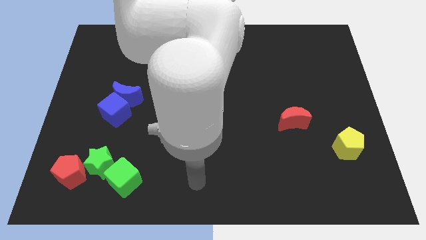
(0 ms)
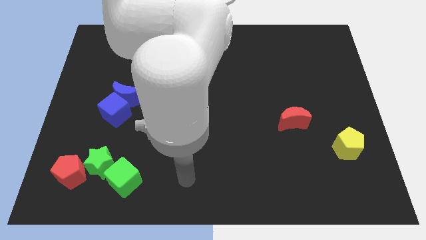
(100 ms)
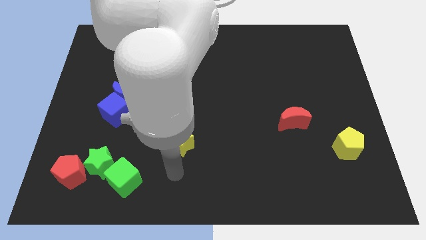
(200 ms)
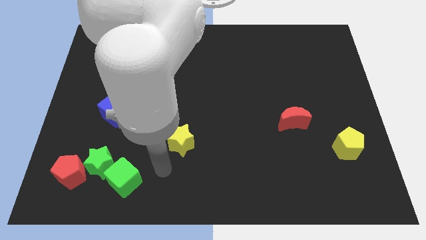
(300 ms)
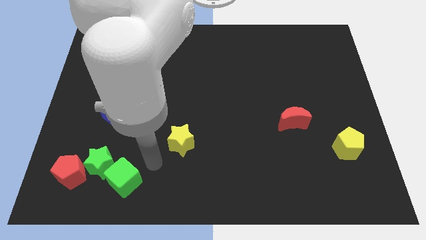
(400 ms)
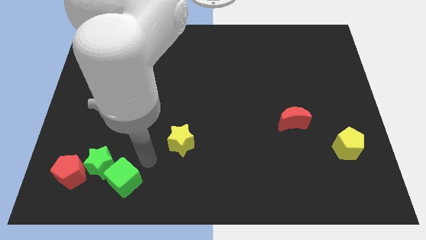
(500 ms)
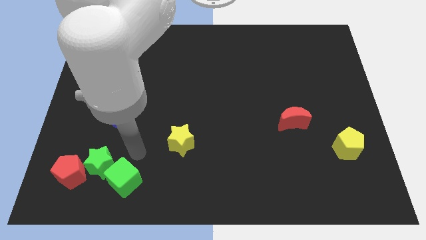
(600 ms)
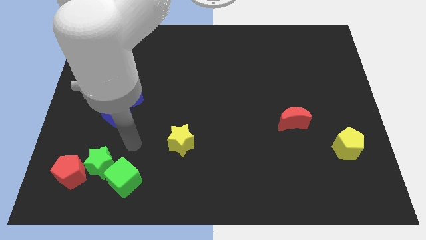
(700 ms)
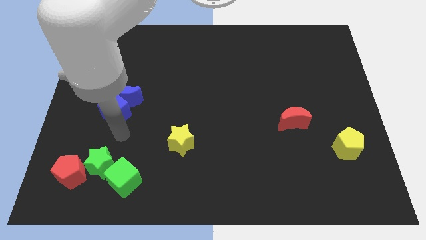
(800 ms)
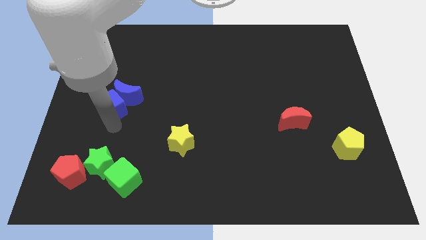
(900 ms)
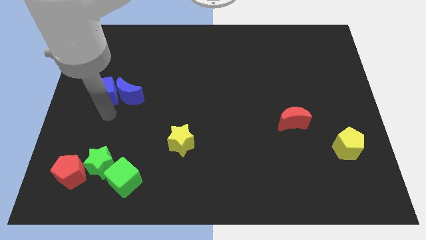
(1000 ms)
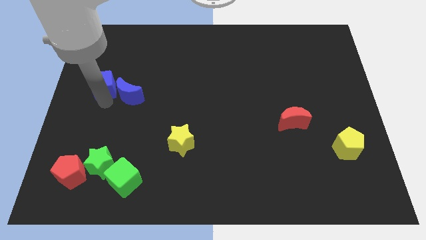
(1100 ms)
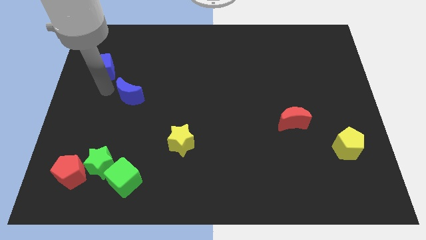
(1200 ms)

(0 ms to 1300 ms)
move the blue moon away from the blue cube

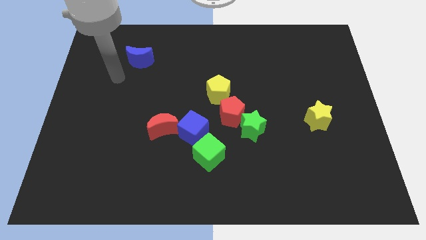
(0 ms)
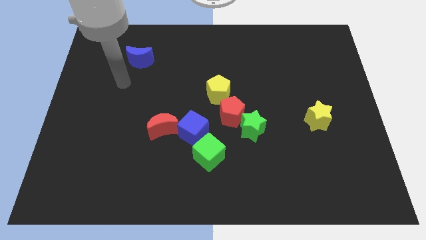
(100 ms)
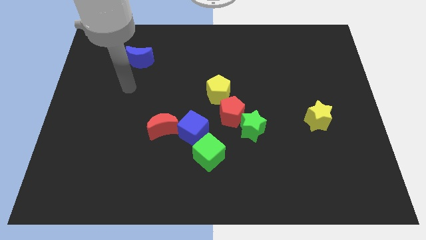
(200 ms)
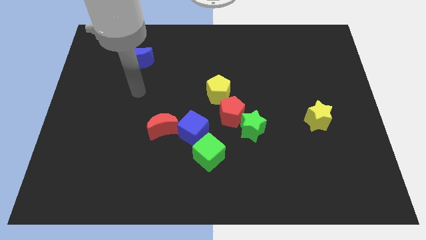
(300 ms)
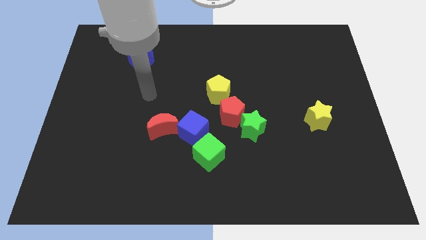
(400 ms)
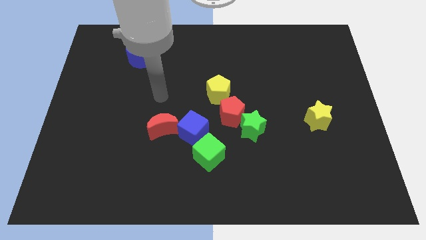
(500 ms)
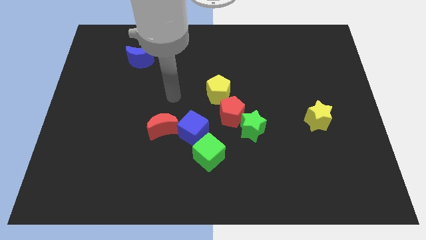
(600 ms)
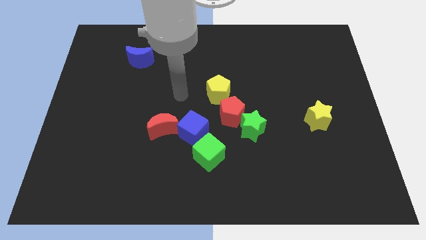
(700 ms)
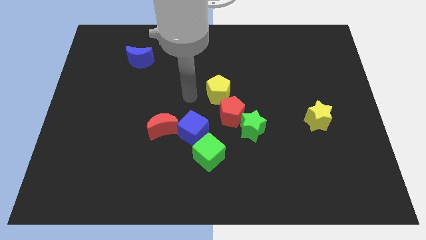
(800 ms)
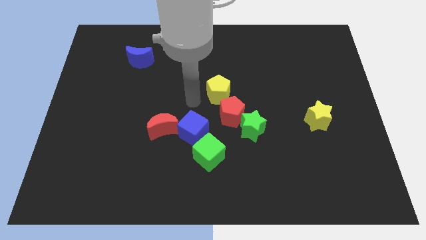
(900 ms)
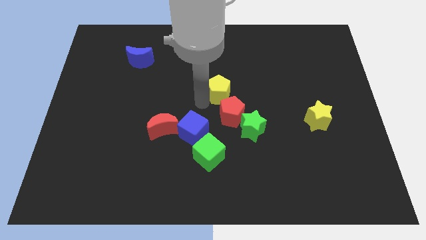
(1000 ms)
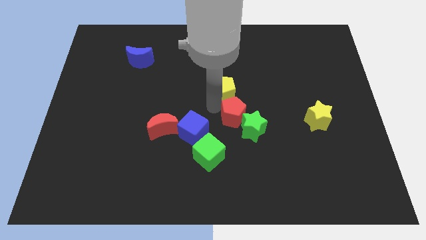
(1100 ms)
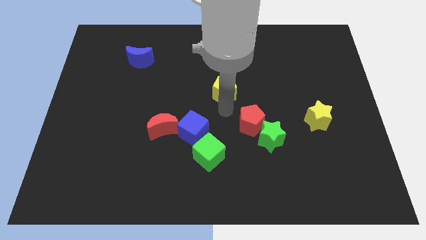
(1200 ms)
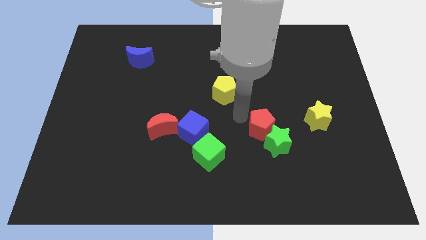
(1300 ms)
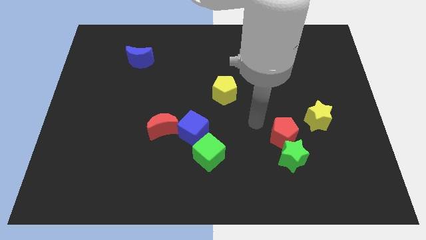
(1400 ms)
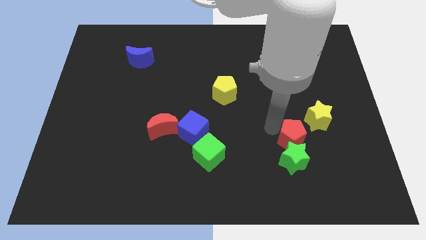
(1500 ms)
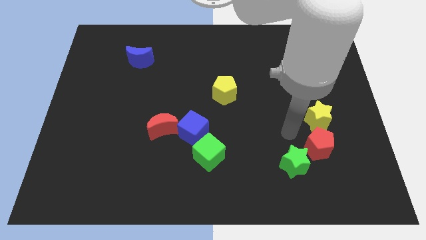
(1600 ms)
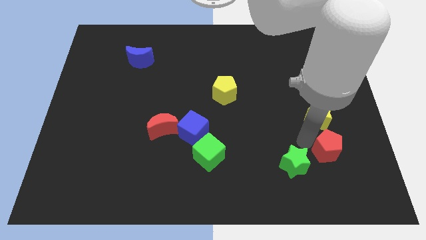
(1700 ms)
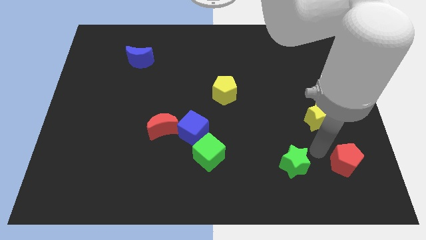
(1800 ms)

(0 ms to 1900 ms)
move the green star away from the red pentagon

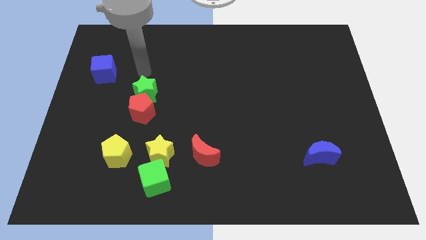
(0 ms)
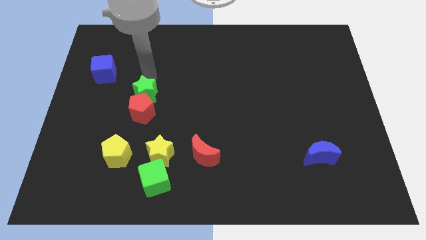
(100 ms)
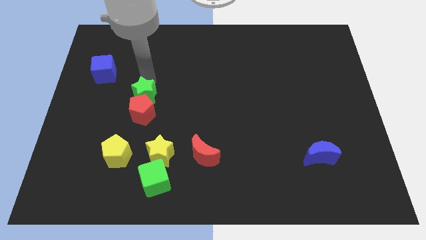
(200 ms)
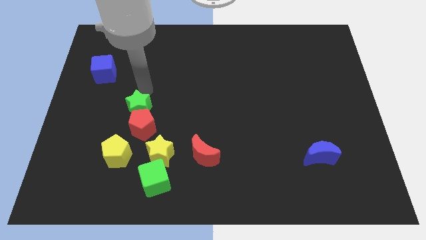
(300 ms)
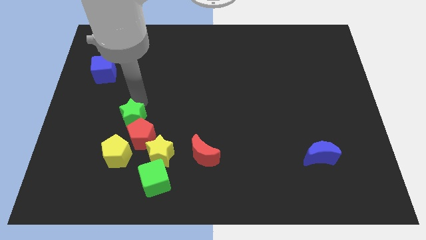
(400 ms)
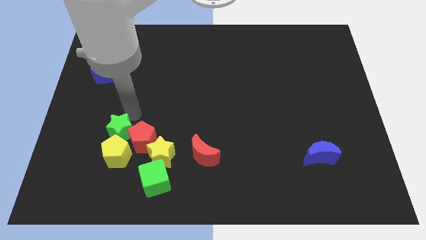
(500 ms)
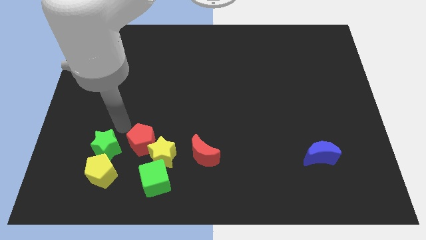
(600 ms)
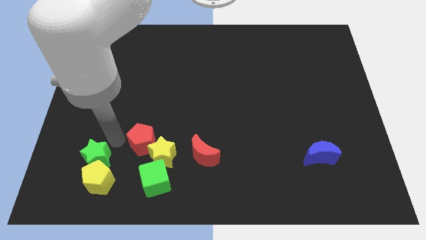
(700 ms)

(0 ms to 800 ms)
pull the red pentagon apart from the green star

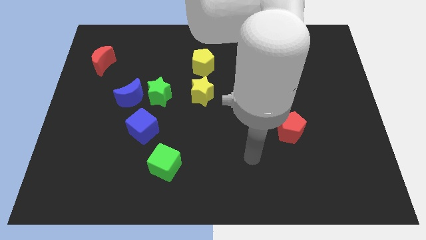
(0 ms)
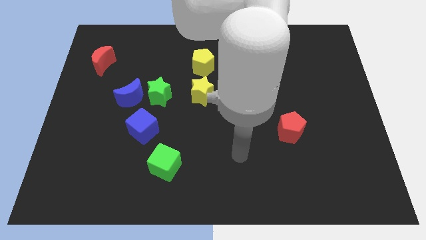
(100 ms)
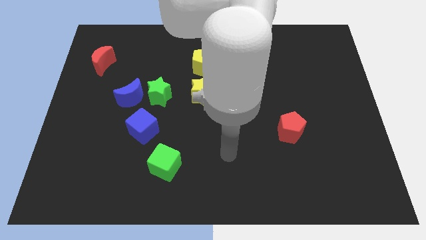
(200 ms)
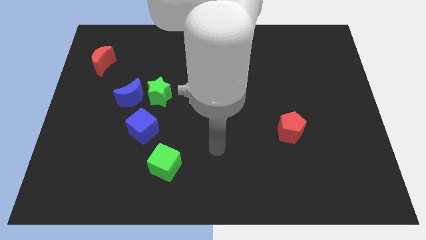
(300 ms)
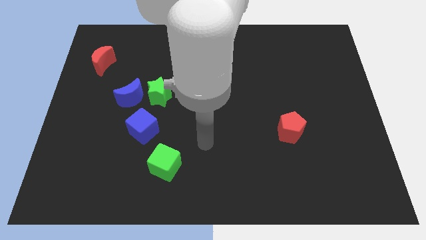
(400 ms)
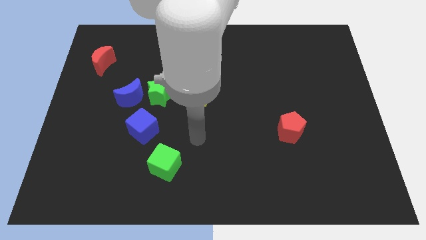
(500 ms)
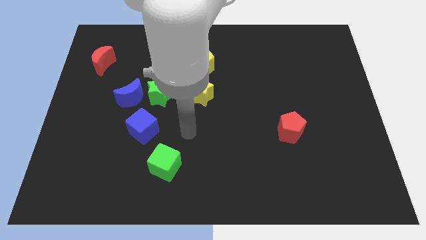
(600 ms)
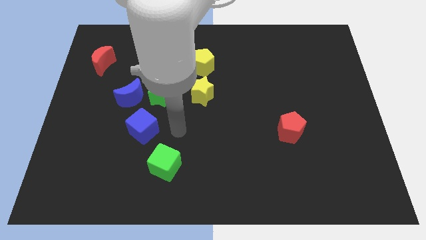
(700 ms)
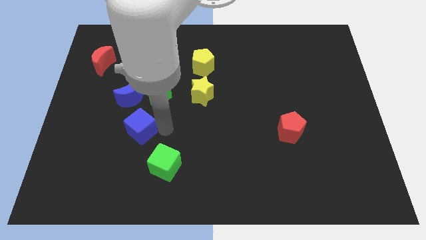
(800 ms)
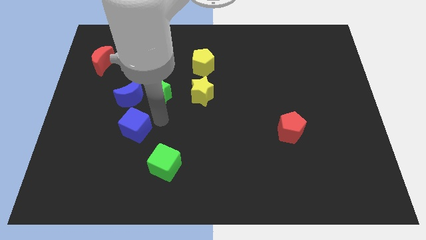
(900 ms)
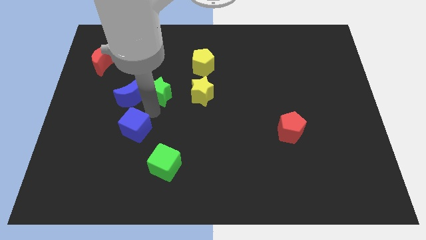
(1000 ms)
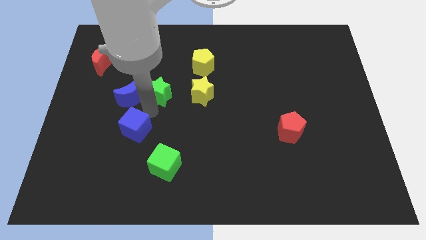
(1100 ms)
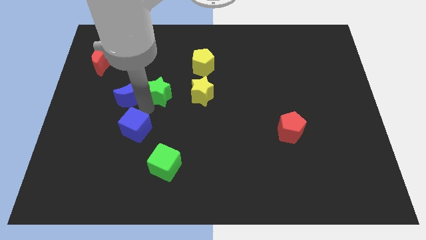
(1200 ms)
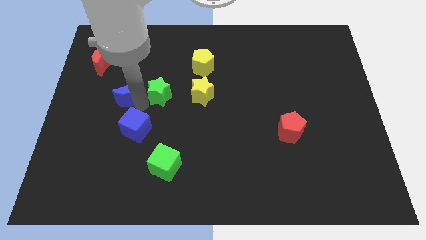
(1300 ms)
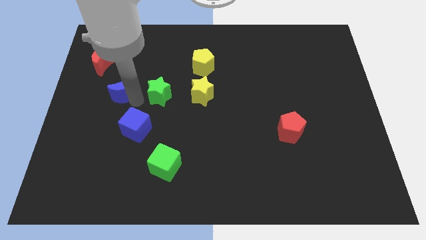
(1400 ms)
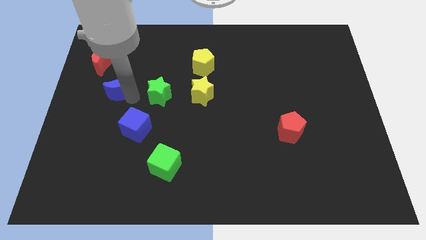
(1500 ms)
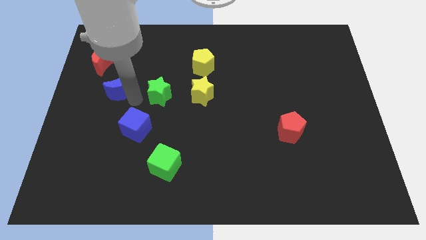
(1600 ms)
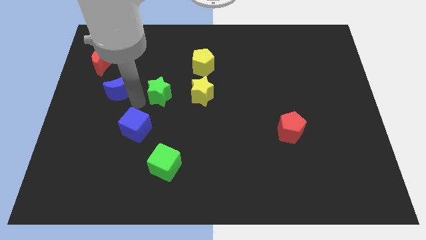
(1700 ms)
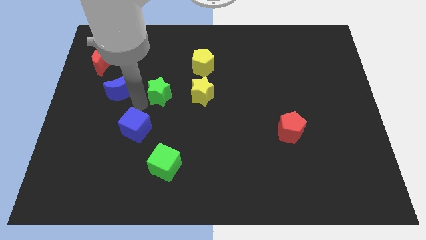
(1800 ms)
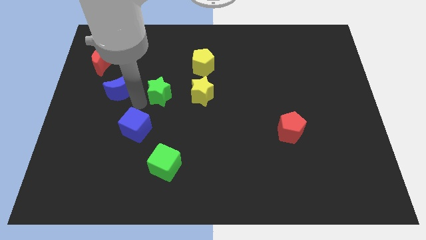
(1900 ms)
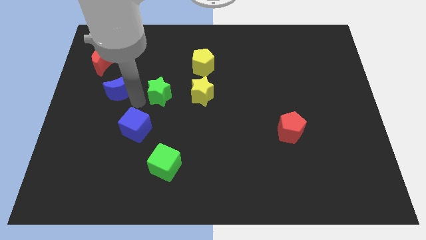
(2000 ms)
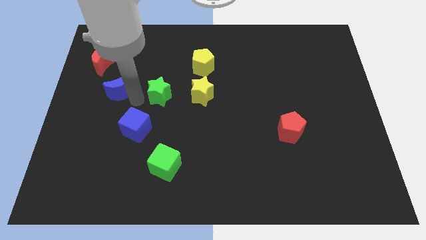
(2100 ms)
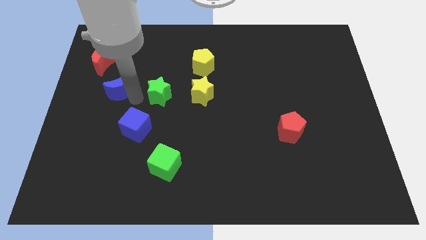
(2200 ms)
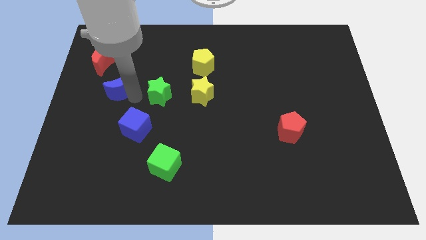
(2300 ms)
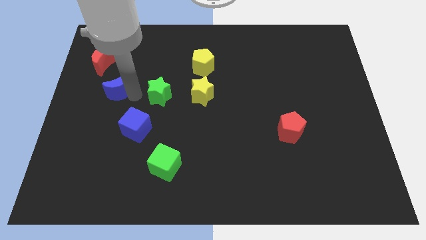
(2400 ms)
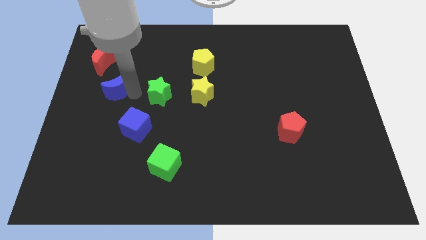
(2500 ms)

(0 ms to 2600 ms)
move the blue moon away from the green star and blue cube

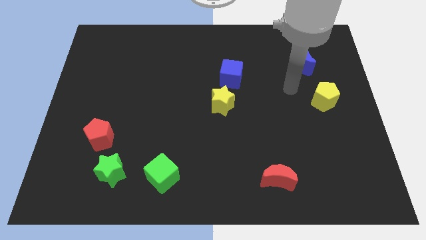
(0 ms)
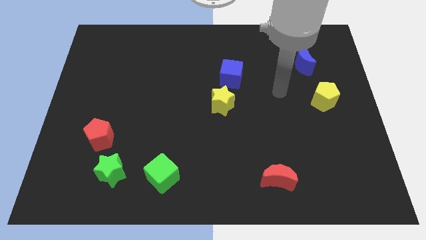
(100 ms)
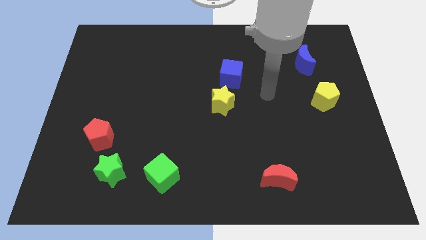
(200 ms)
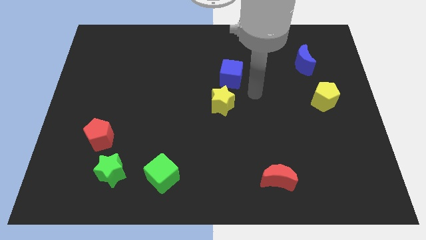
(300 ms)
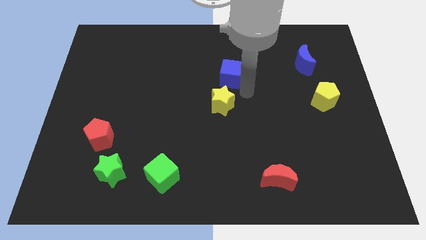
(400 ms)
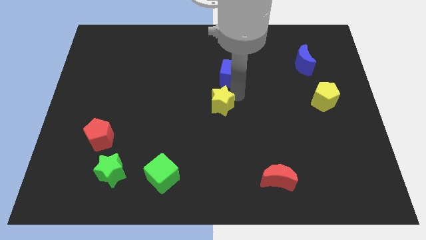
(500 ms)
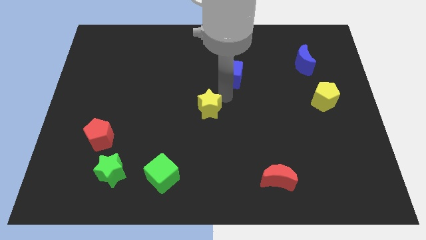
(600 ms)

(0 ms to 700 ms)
move the blue cube away from the yellow star

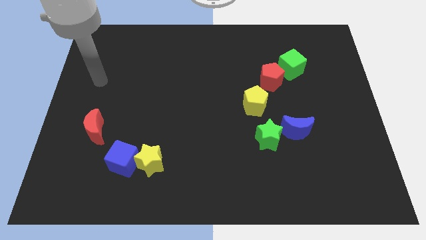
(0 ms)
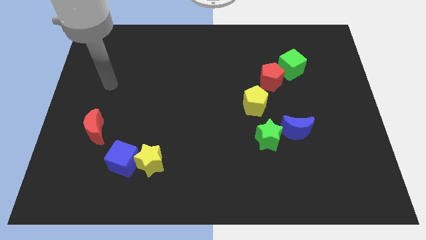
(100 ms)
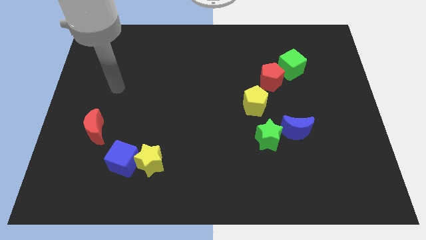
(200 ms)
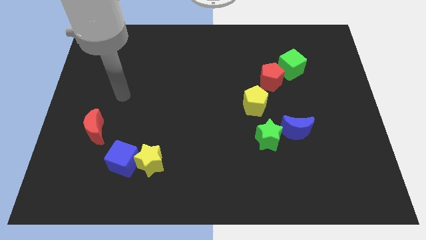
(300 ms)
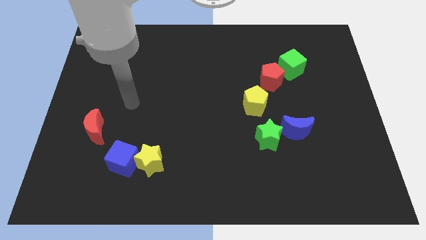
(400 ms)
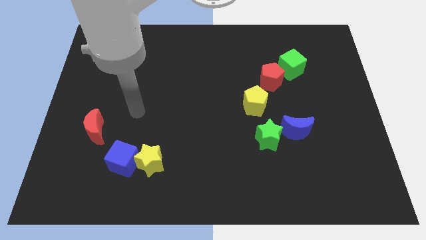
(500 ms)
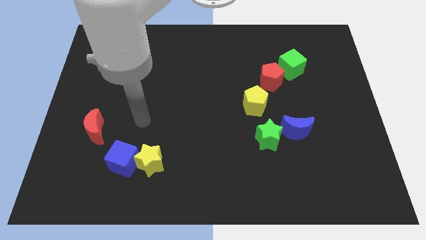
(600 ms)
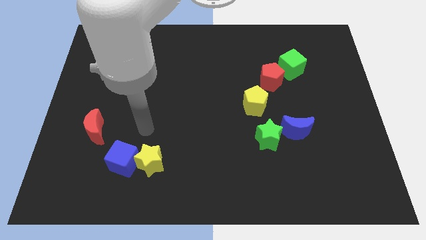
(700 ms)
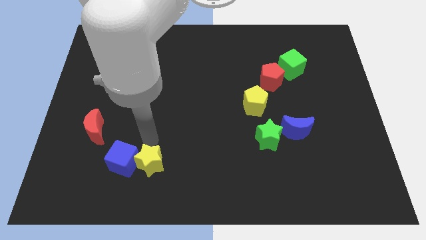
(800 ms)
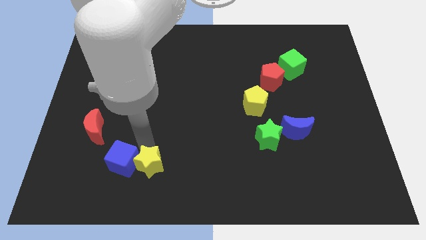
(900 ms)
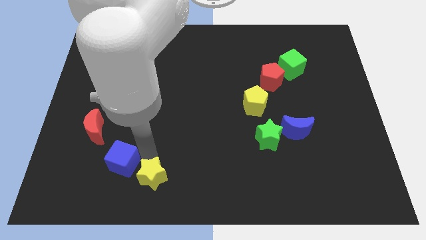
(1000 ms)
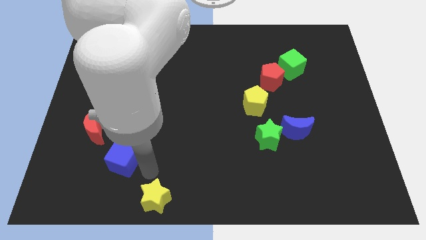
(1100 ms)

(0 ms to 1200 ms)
pull the blue cube apart from the yellow star

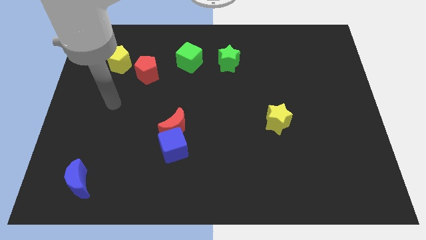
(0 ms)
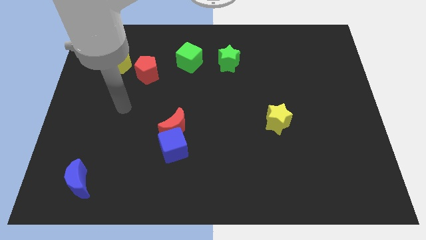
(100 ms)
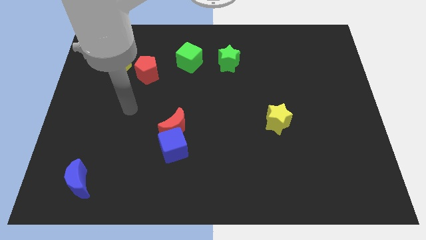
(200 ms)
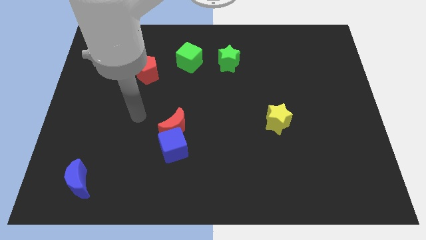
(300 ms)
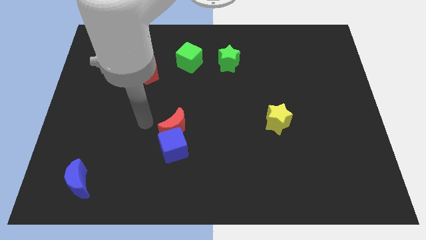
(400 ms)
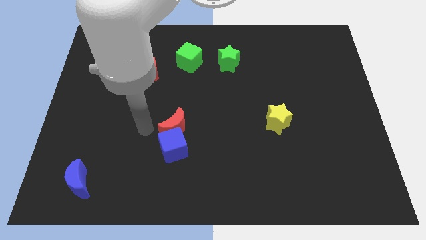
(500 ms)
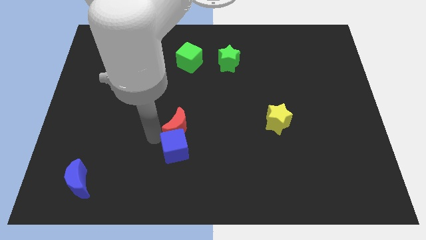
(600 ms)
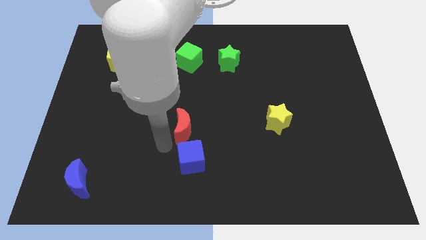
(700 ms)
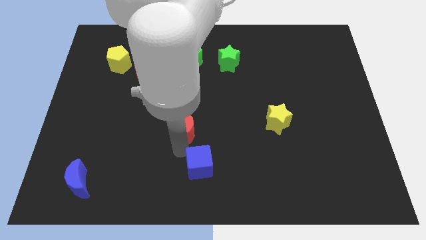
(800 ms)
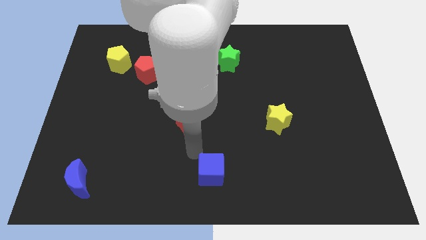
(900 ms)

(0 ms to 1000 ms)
pull the red moon apart from the blue cube

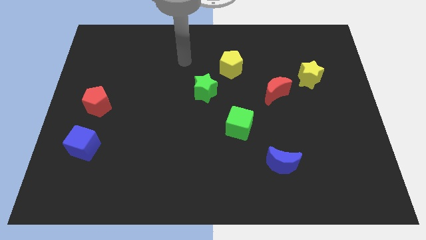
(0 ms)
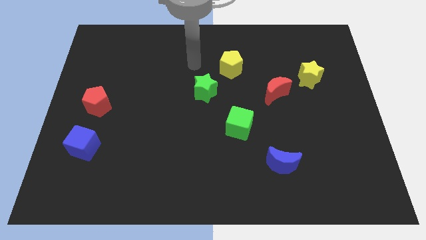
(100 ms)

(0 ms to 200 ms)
pull the green star apart from the yellow pentagon
